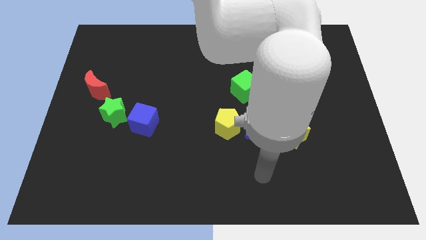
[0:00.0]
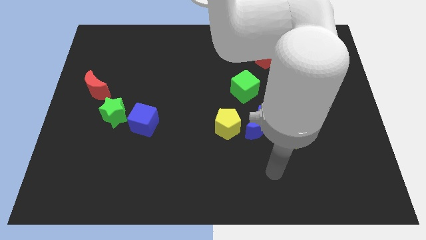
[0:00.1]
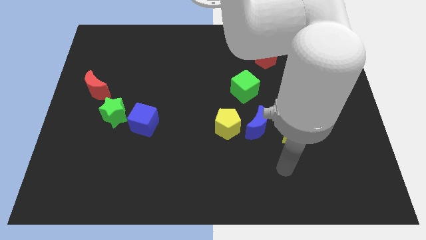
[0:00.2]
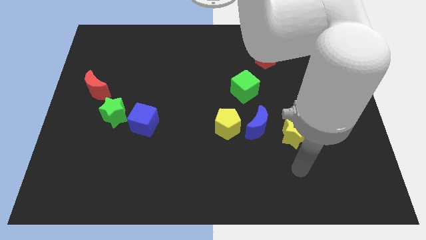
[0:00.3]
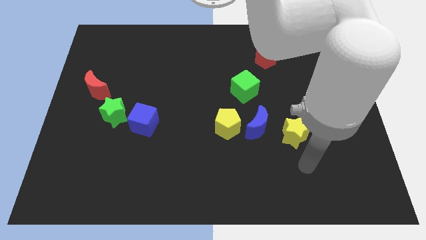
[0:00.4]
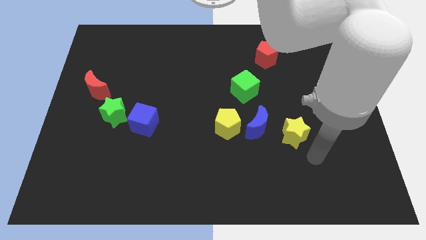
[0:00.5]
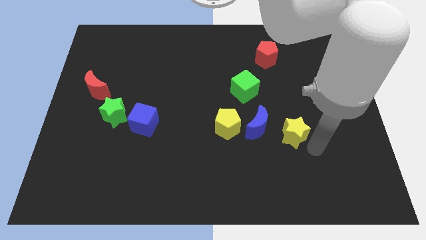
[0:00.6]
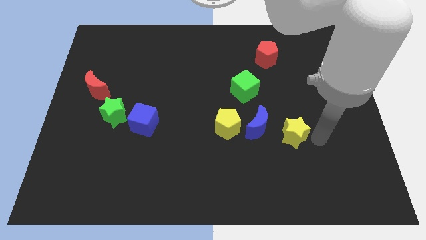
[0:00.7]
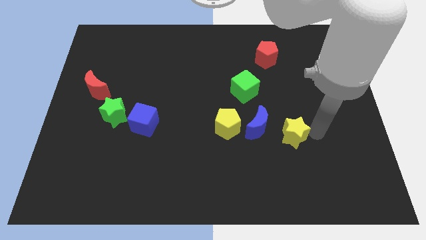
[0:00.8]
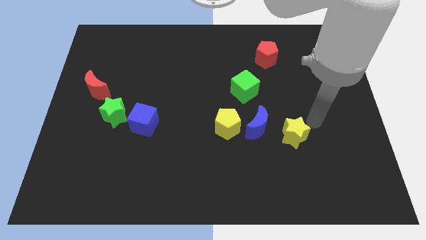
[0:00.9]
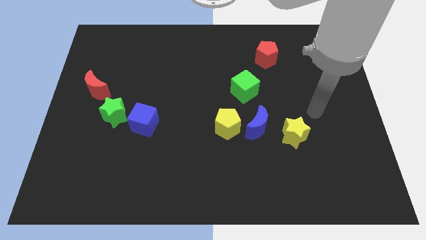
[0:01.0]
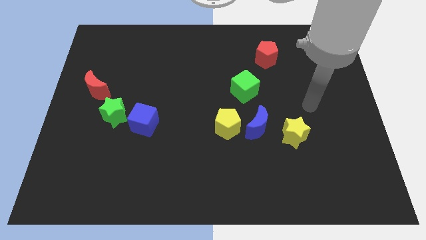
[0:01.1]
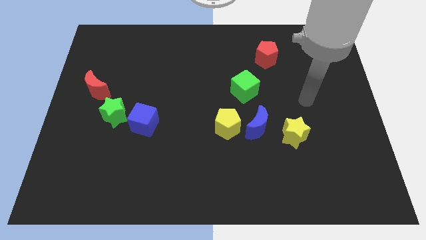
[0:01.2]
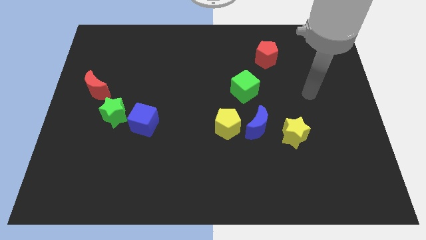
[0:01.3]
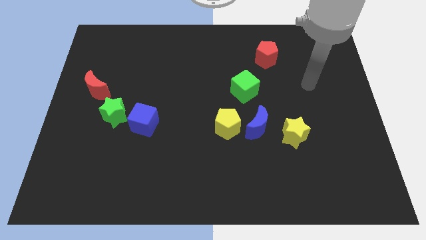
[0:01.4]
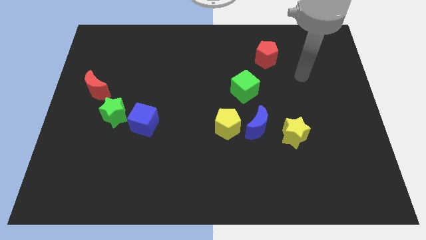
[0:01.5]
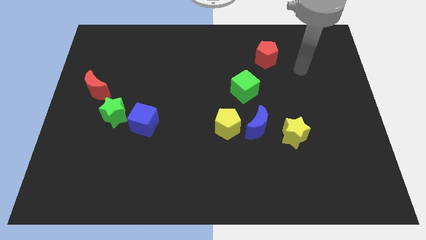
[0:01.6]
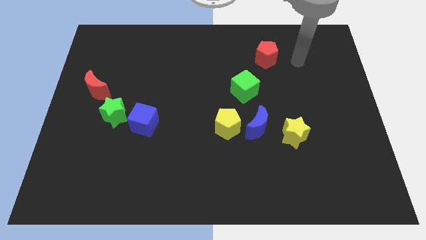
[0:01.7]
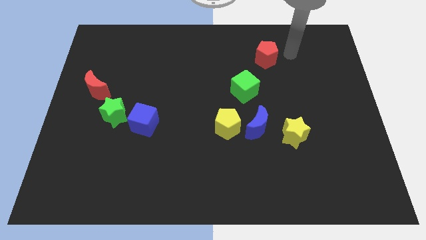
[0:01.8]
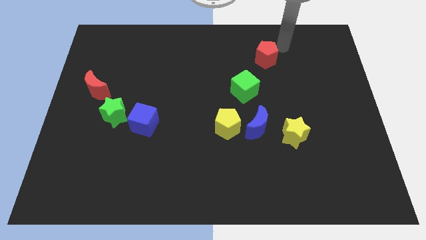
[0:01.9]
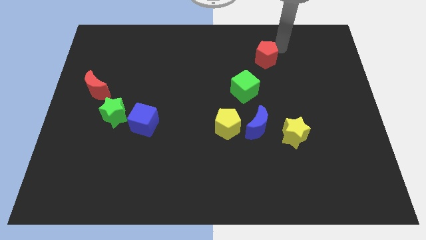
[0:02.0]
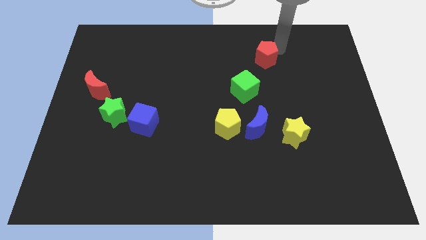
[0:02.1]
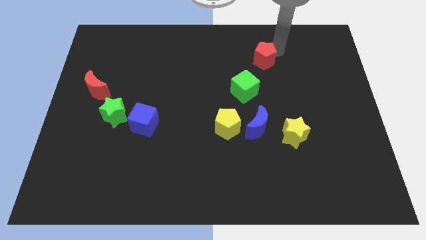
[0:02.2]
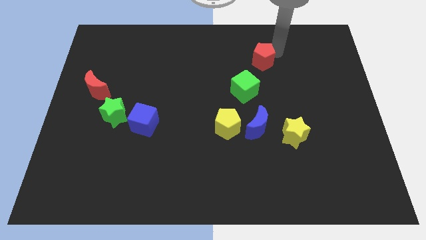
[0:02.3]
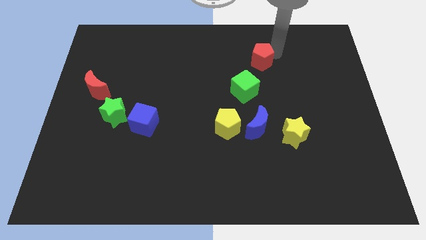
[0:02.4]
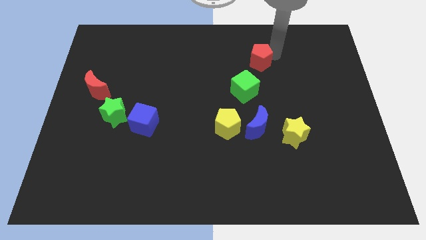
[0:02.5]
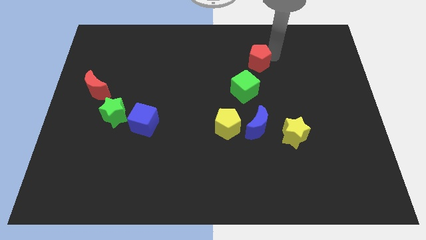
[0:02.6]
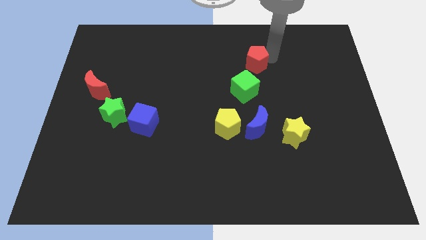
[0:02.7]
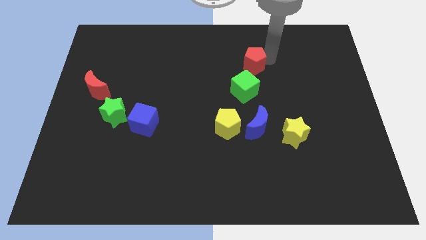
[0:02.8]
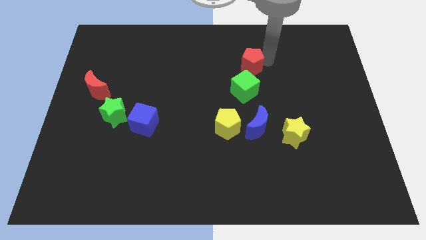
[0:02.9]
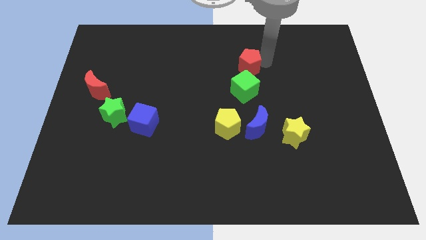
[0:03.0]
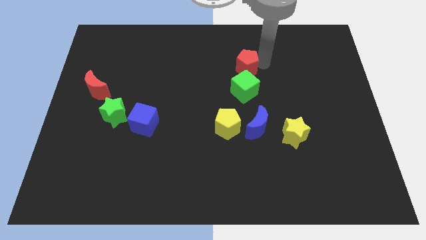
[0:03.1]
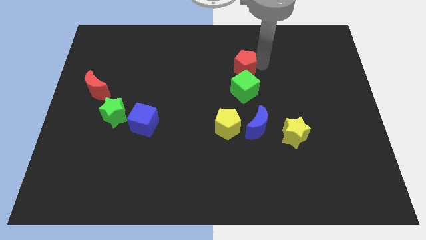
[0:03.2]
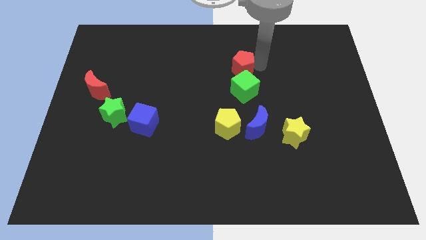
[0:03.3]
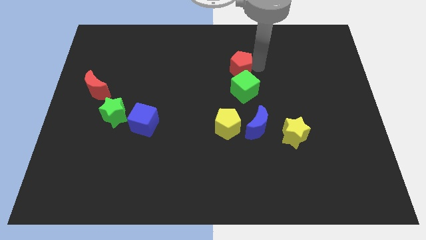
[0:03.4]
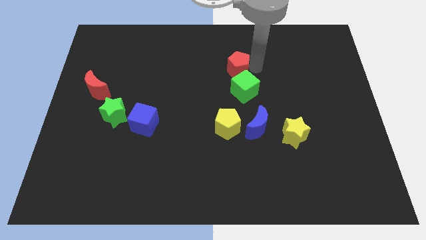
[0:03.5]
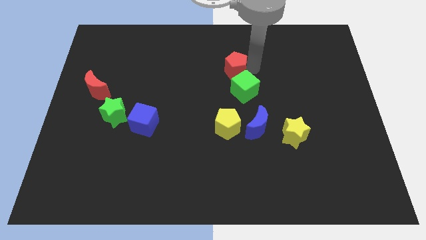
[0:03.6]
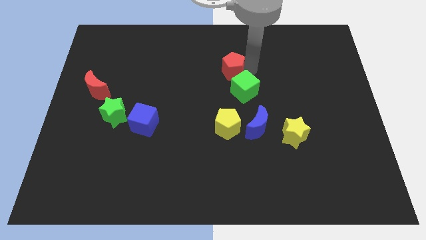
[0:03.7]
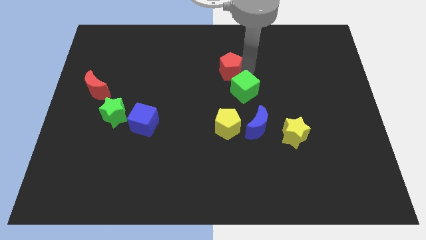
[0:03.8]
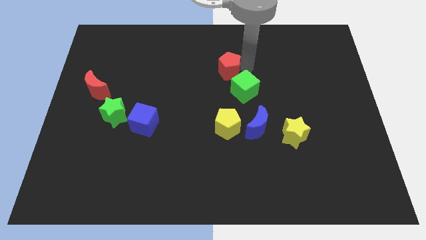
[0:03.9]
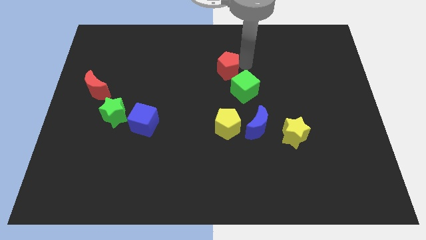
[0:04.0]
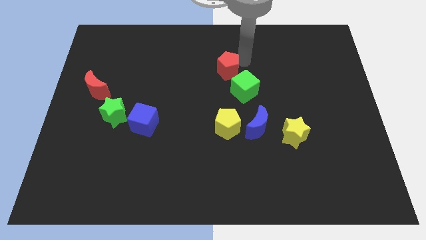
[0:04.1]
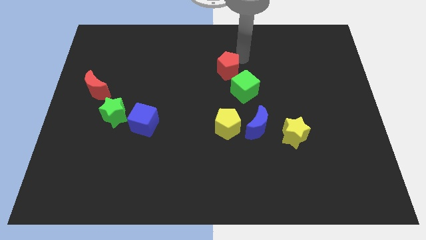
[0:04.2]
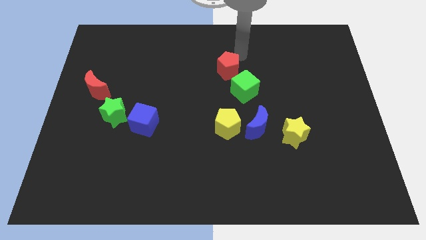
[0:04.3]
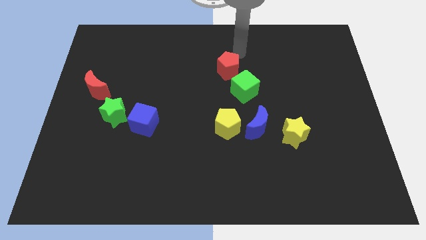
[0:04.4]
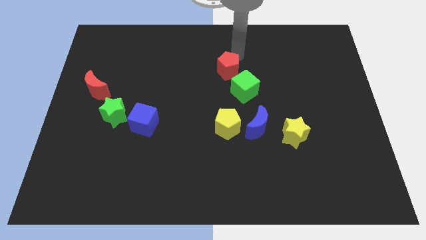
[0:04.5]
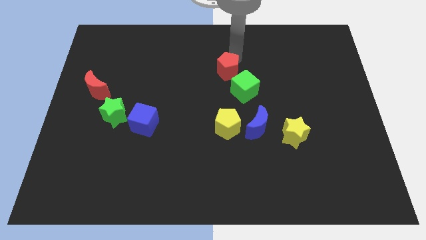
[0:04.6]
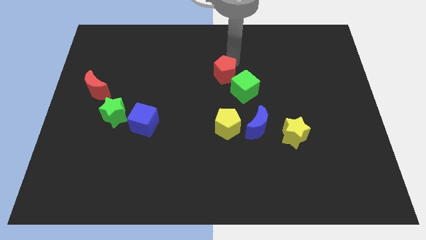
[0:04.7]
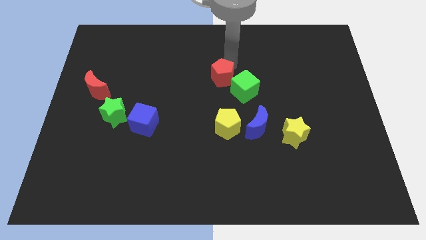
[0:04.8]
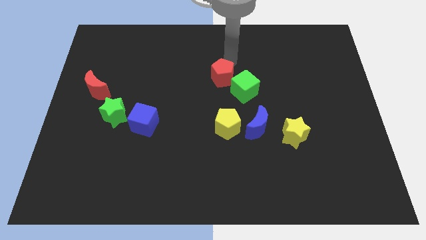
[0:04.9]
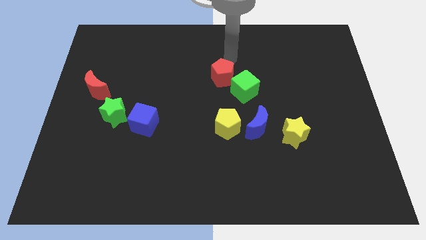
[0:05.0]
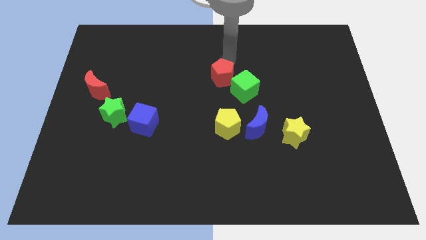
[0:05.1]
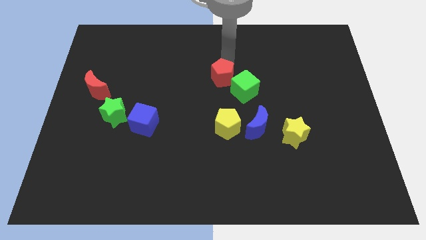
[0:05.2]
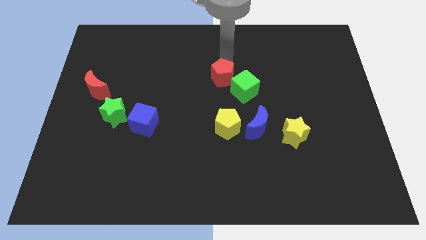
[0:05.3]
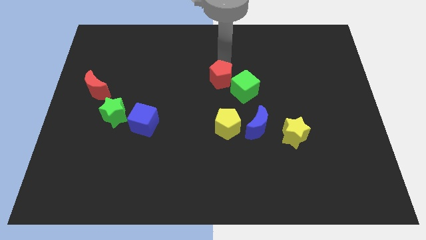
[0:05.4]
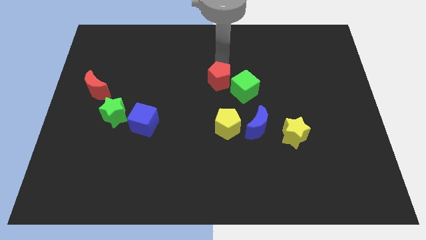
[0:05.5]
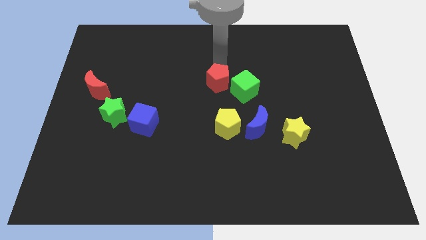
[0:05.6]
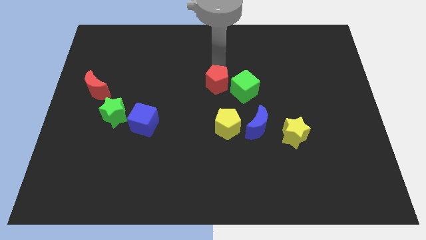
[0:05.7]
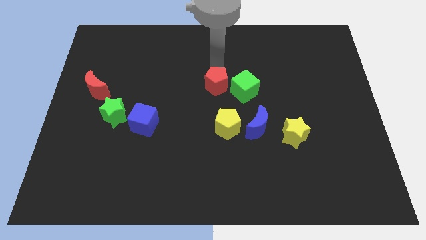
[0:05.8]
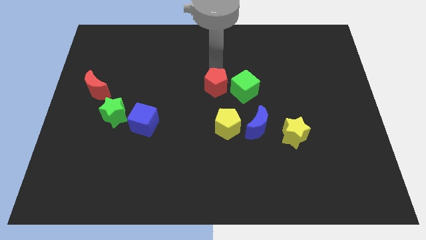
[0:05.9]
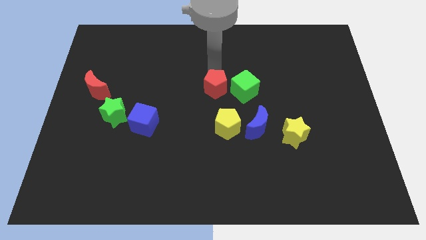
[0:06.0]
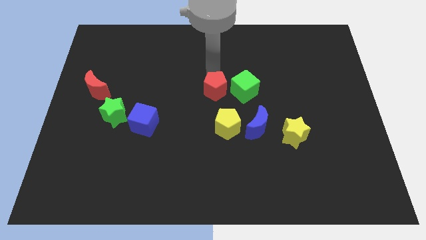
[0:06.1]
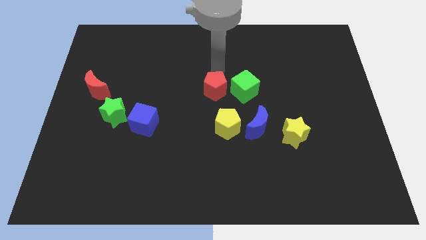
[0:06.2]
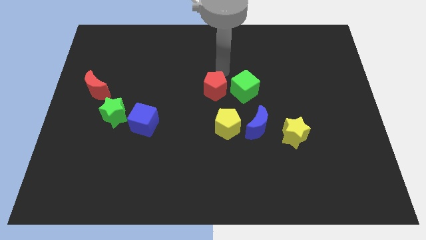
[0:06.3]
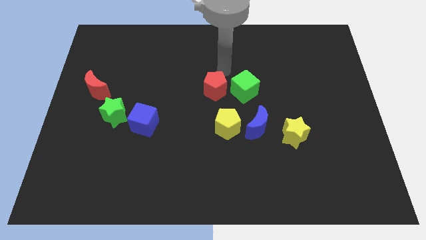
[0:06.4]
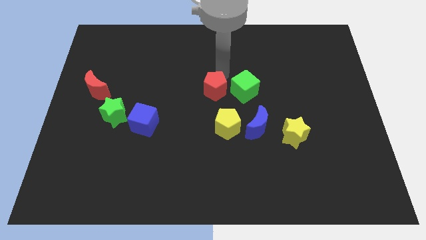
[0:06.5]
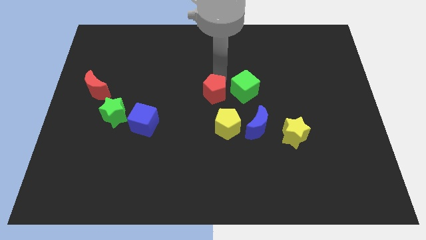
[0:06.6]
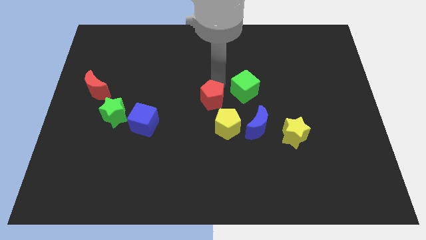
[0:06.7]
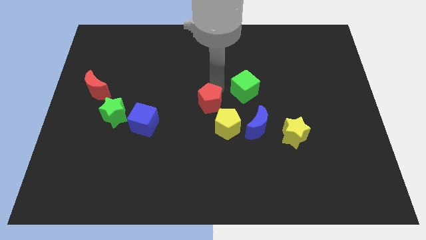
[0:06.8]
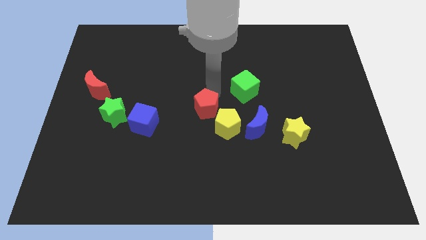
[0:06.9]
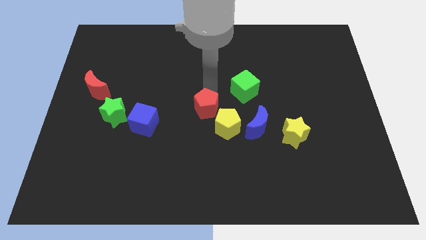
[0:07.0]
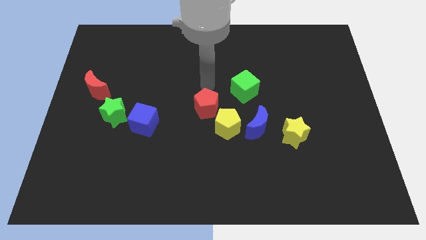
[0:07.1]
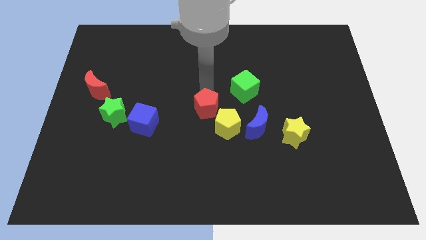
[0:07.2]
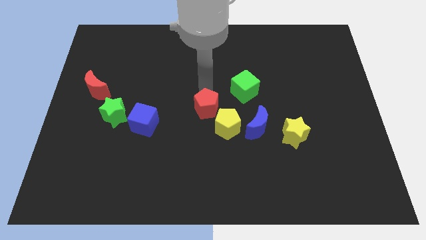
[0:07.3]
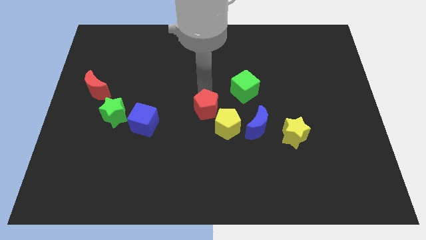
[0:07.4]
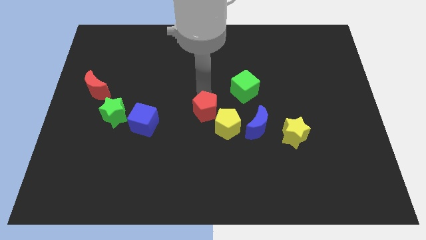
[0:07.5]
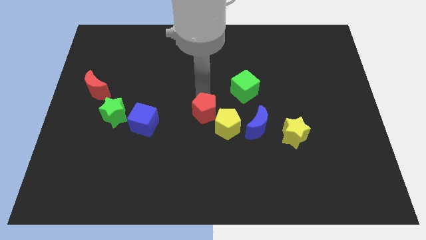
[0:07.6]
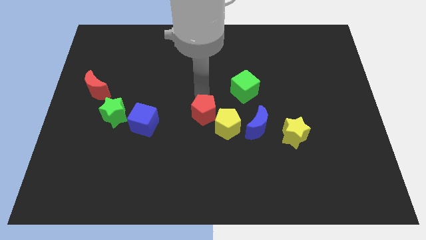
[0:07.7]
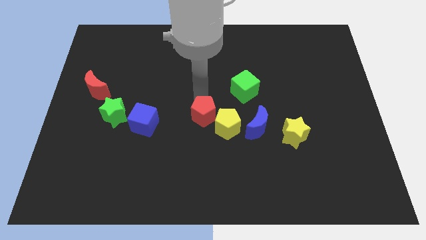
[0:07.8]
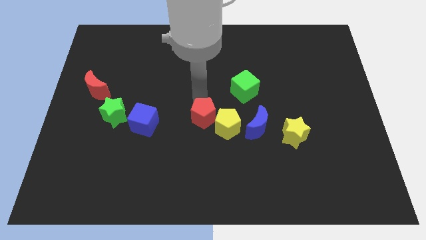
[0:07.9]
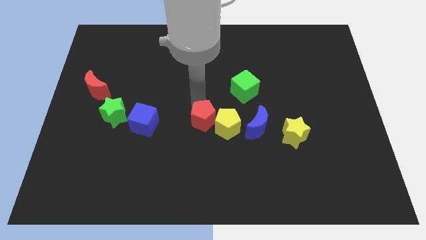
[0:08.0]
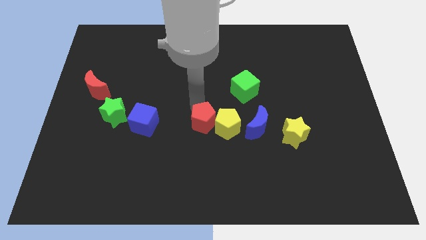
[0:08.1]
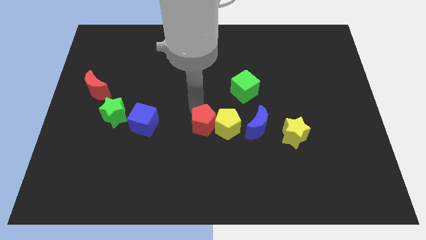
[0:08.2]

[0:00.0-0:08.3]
push the red pentagon to the bottom left side of the yellow pentagon

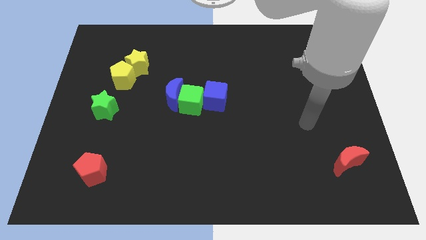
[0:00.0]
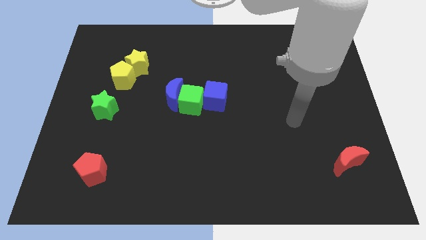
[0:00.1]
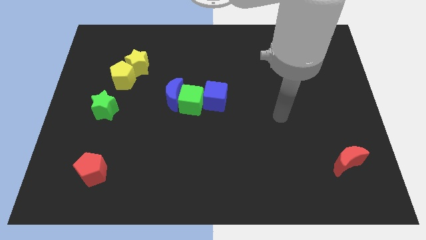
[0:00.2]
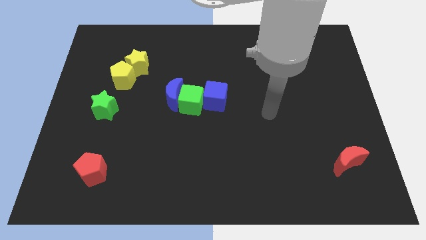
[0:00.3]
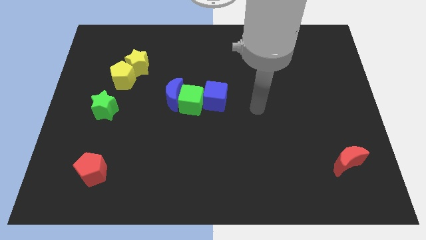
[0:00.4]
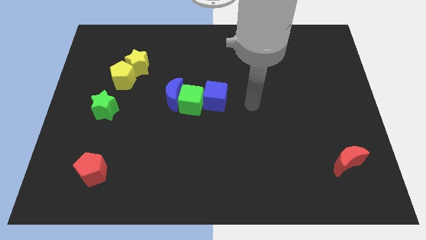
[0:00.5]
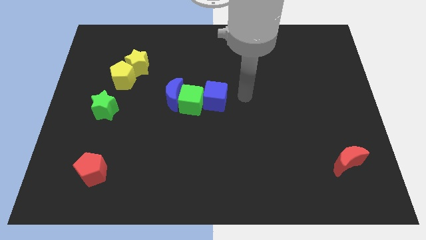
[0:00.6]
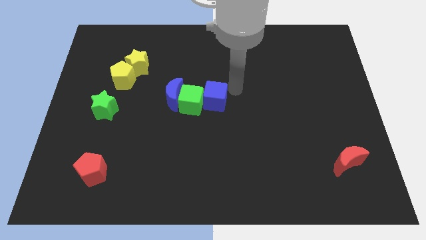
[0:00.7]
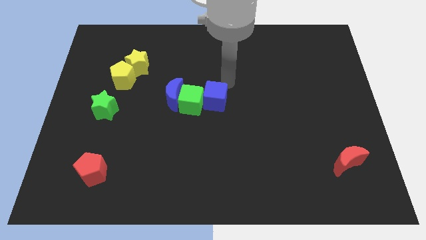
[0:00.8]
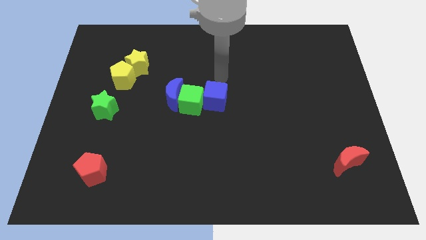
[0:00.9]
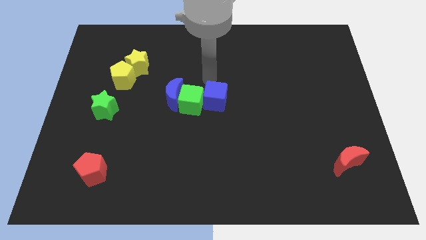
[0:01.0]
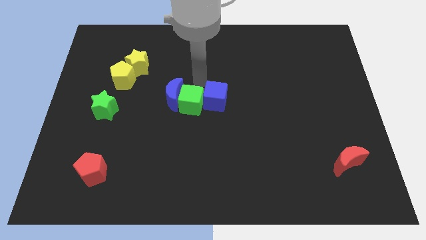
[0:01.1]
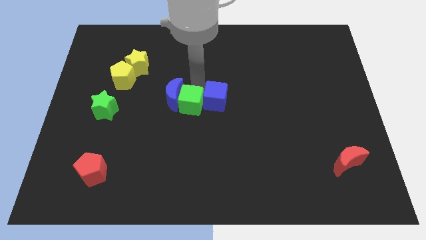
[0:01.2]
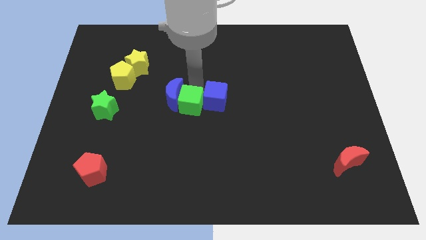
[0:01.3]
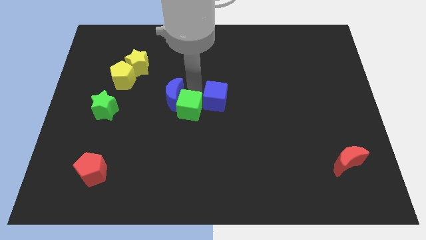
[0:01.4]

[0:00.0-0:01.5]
put the green cube to the bottom of the blue moon
